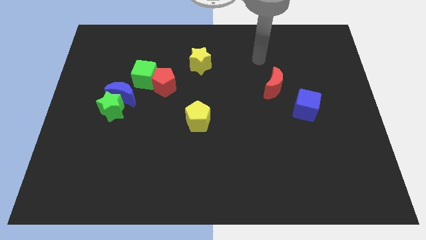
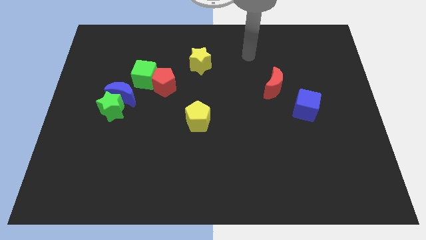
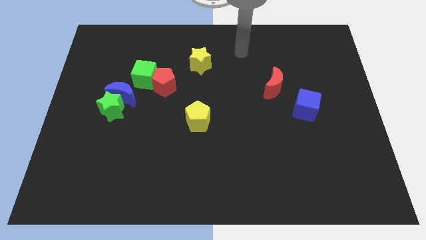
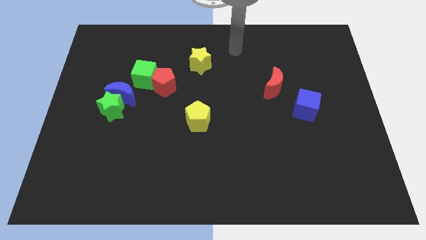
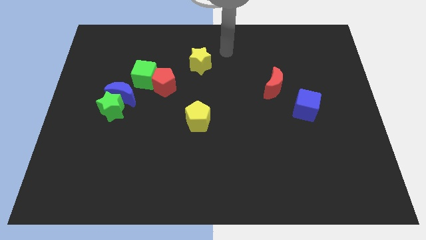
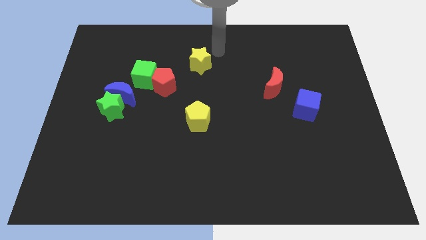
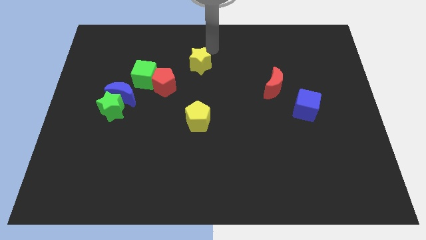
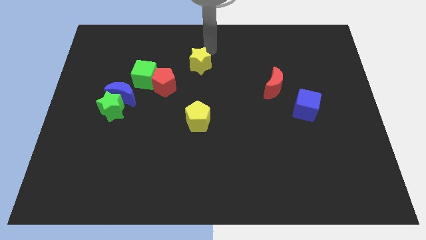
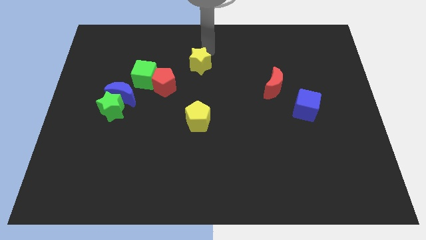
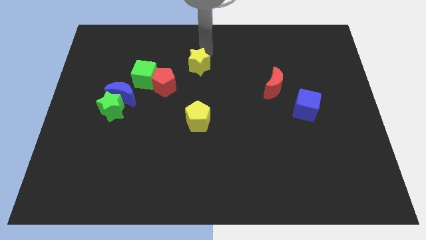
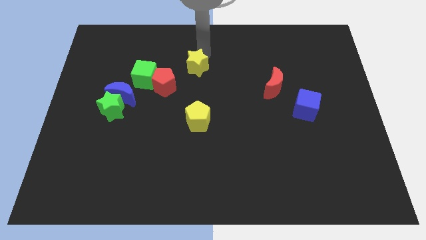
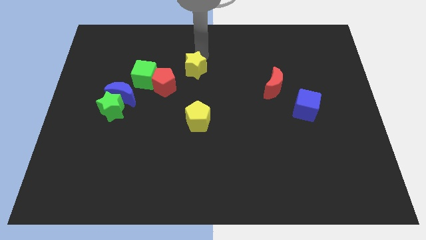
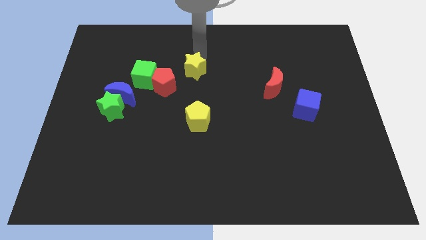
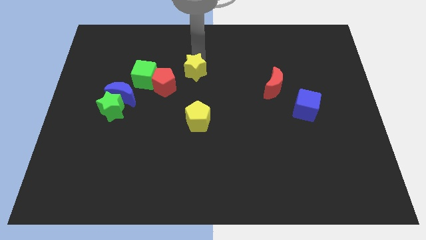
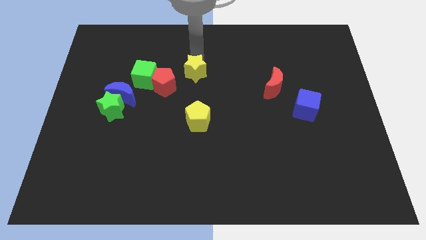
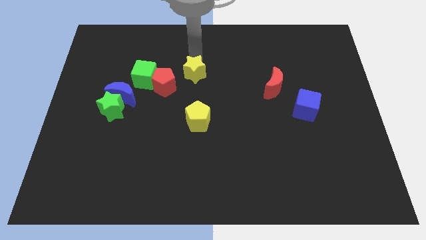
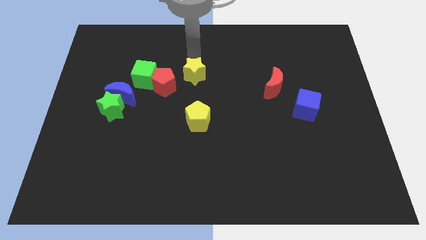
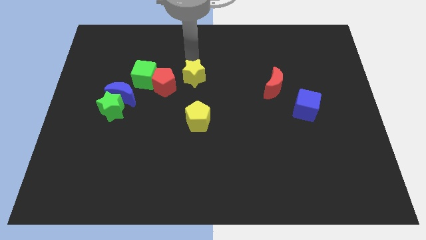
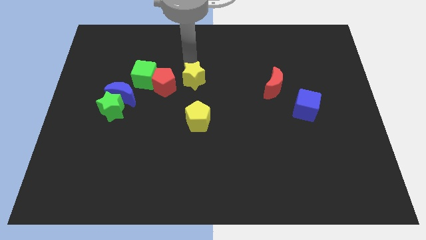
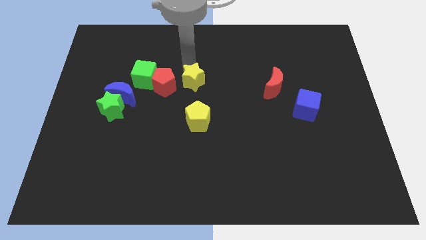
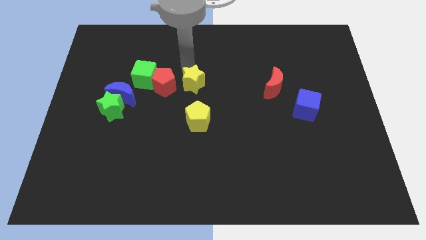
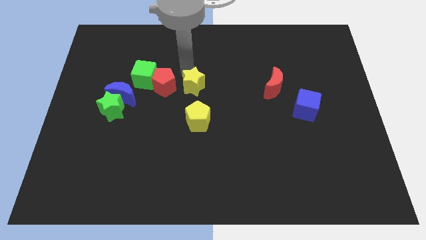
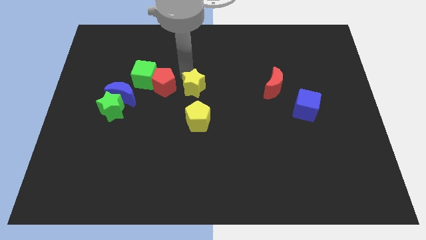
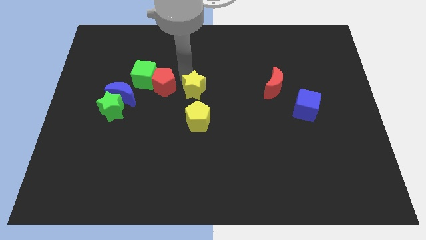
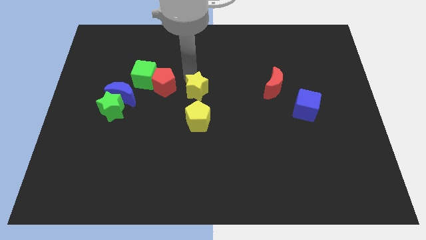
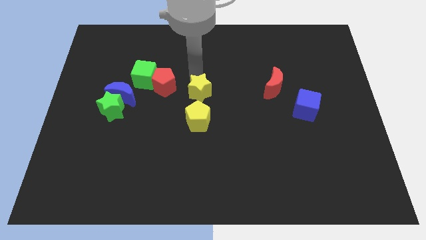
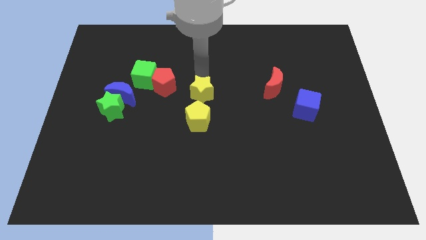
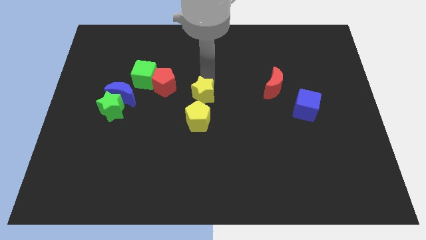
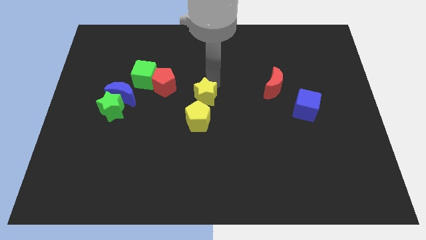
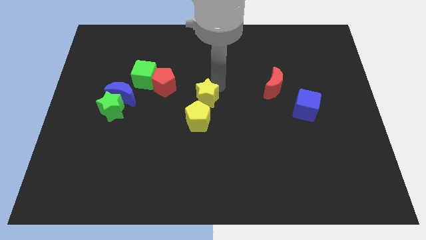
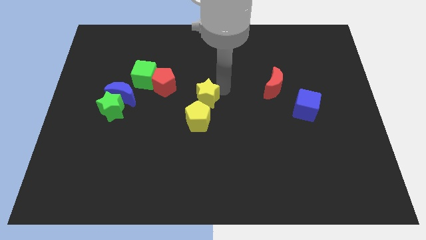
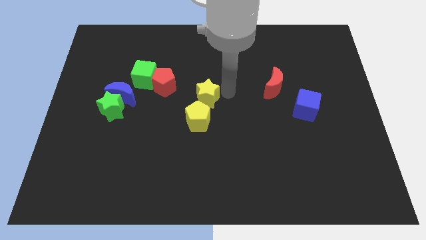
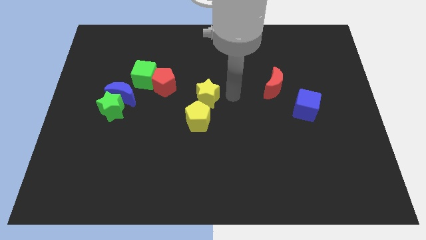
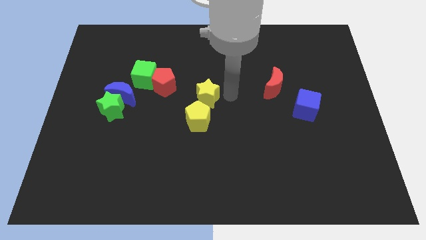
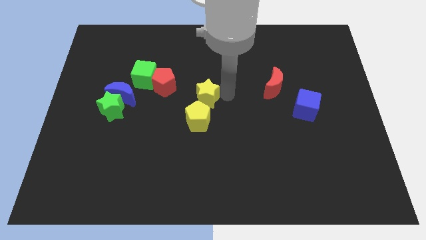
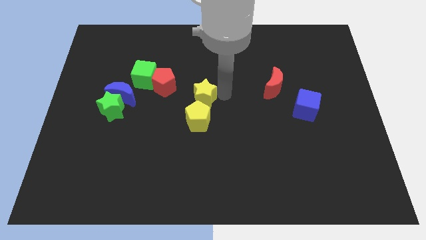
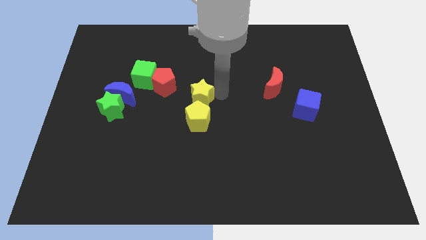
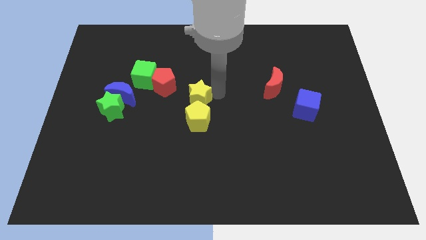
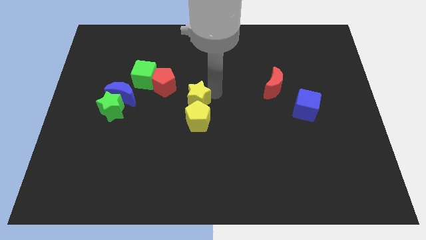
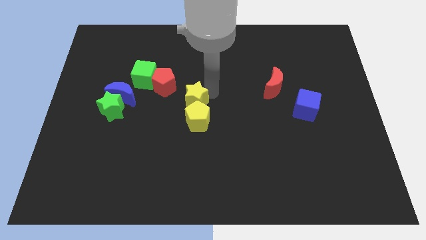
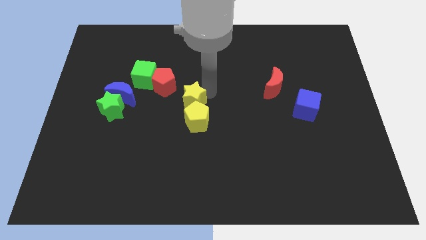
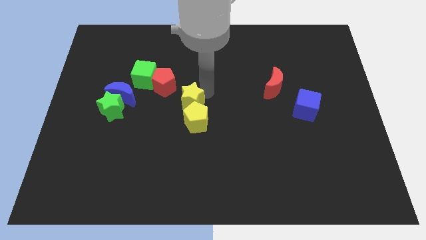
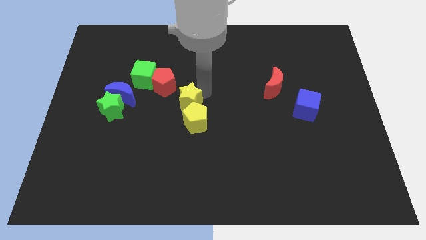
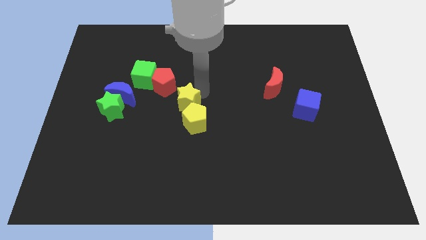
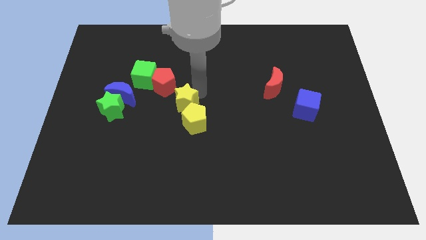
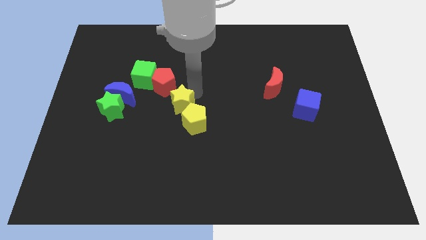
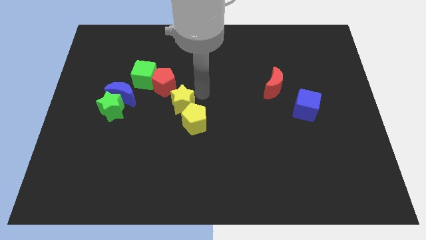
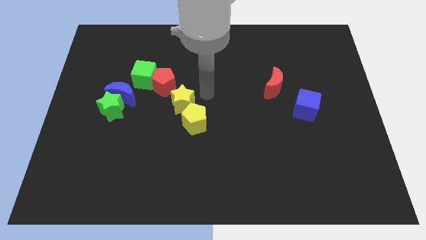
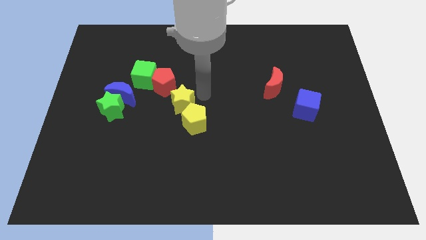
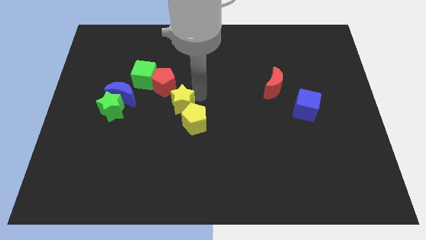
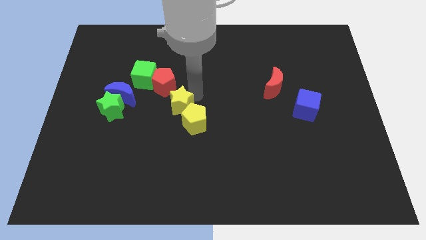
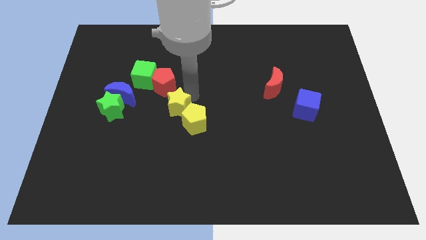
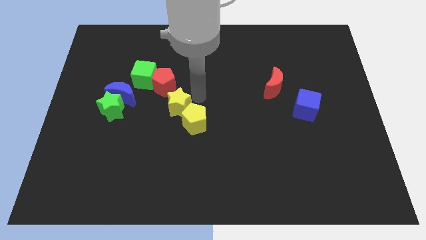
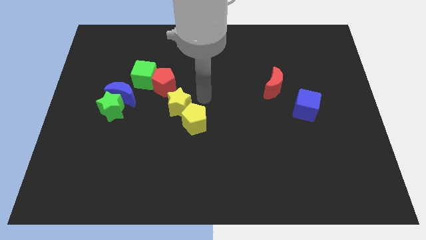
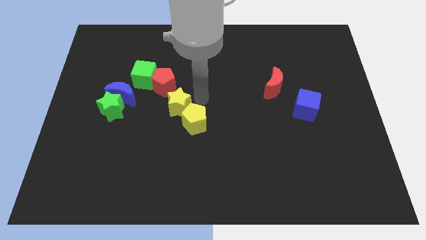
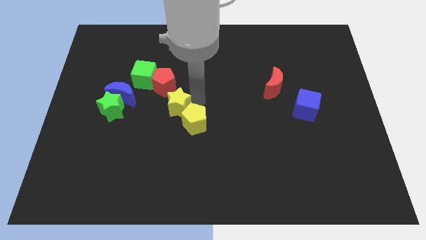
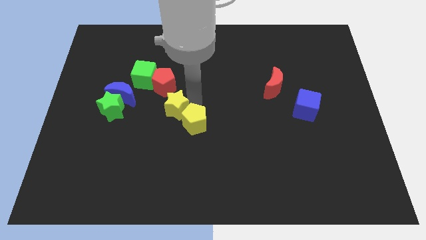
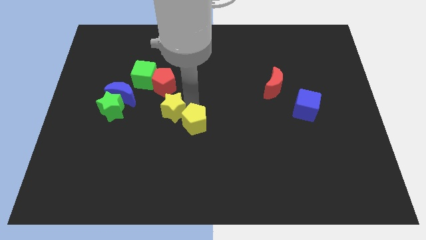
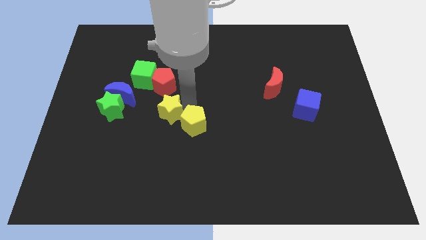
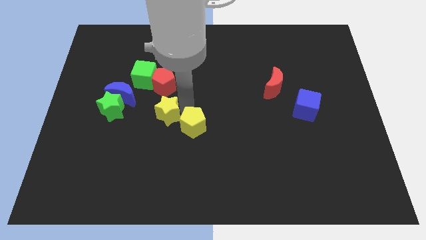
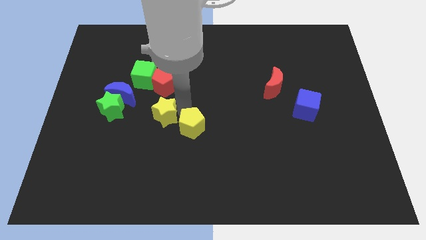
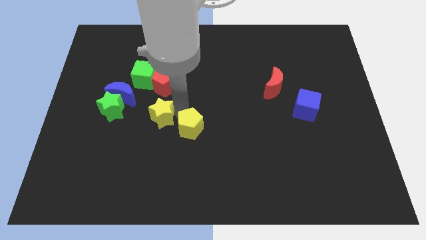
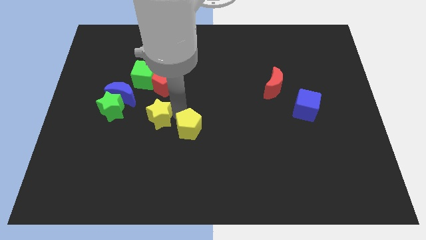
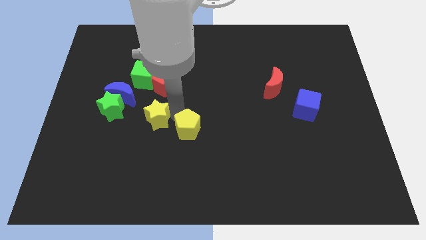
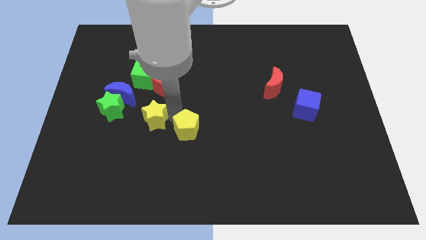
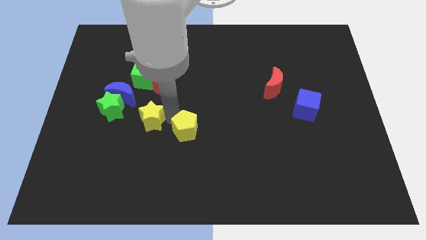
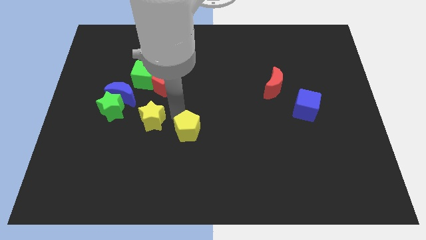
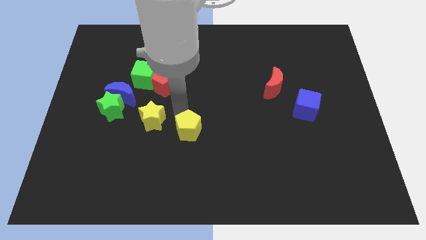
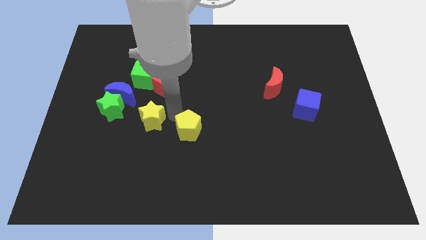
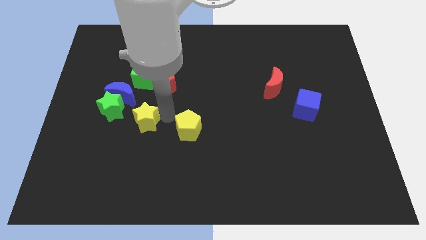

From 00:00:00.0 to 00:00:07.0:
slide the yellow star down and to the left

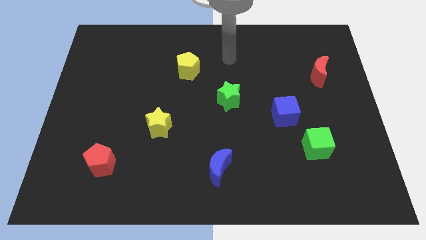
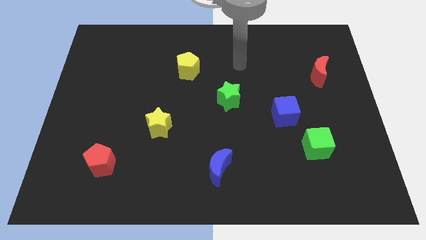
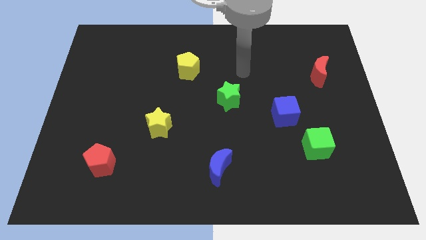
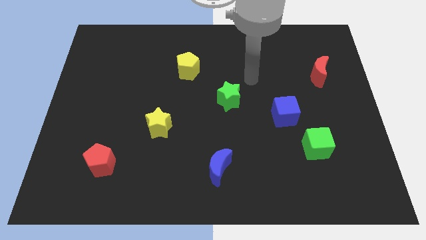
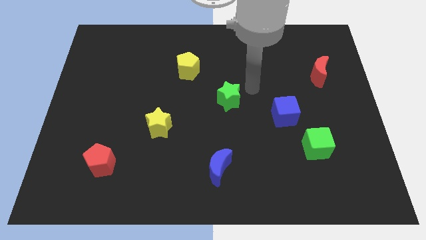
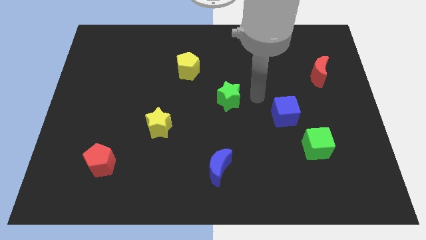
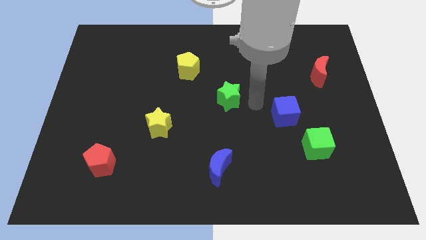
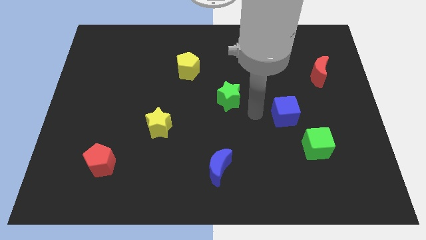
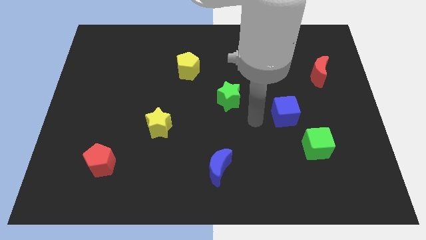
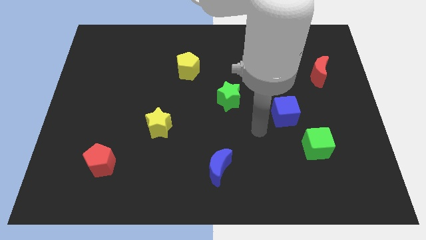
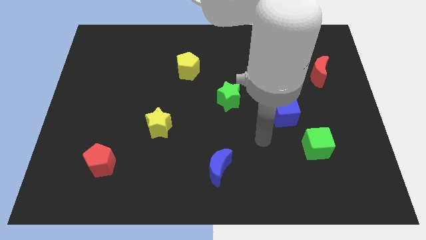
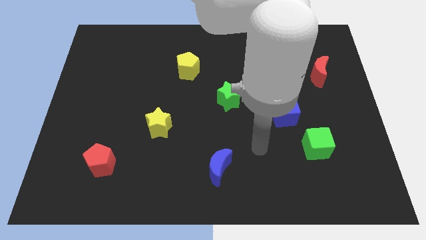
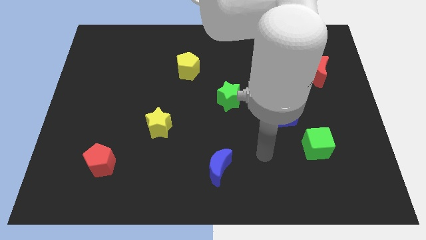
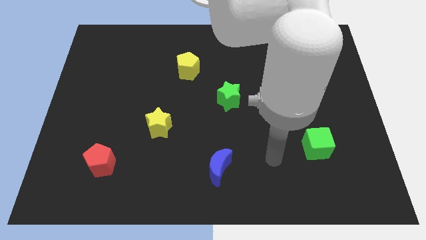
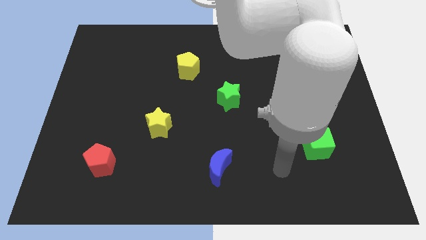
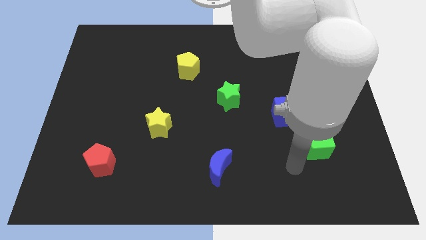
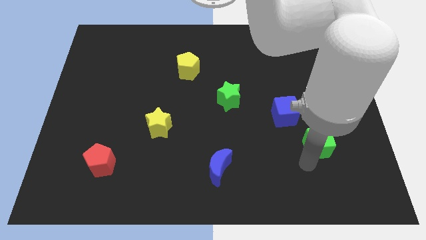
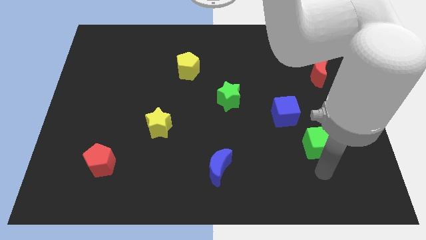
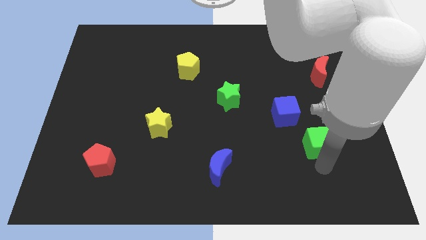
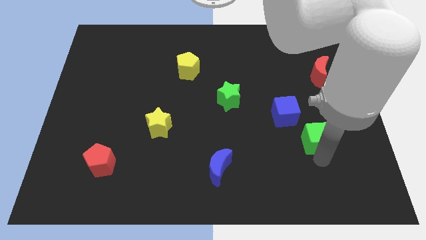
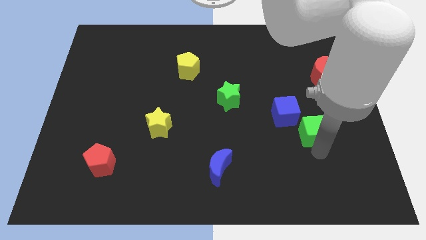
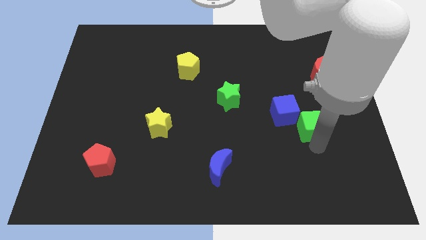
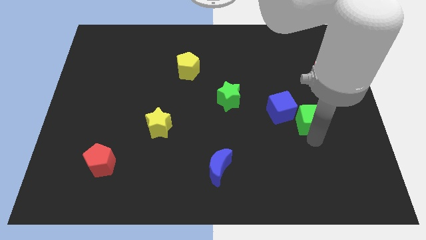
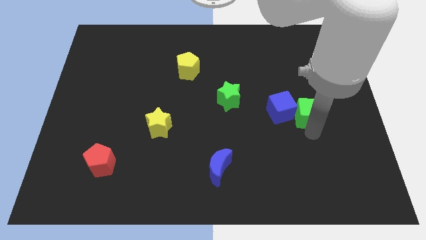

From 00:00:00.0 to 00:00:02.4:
slide the green cube upwards a bit
